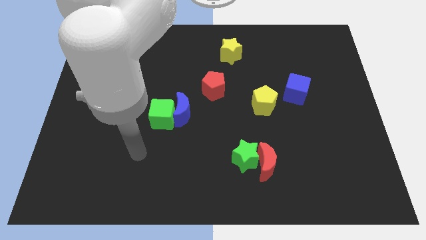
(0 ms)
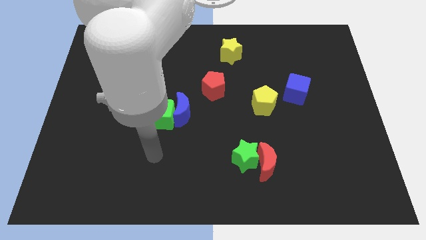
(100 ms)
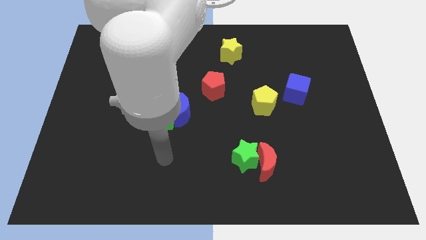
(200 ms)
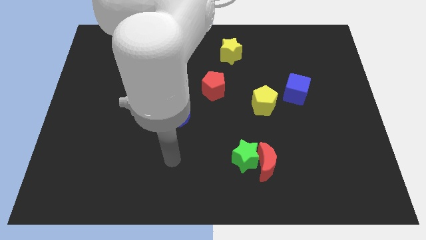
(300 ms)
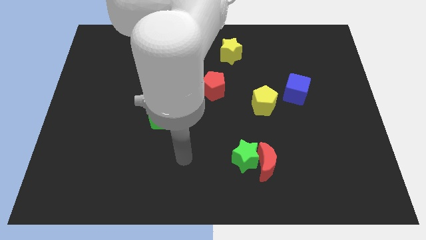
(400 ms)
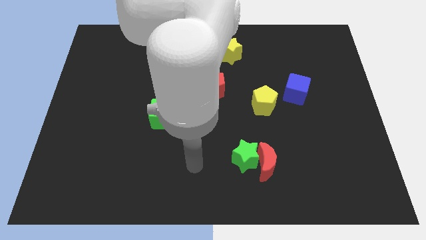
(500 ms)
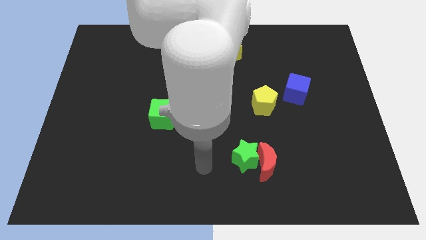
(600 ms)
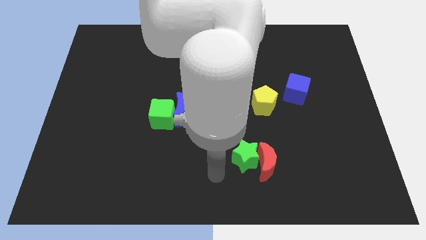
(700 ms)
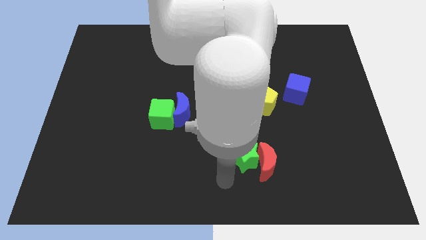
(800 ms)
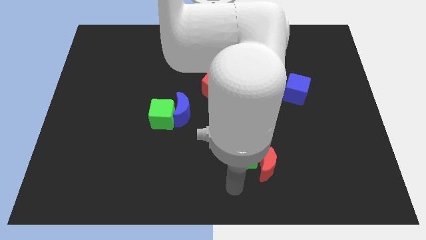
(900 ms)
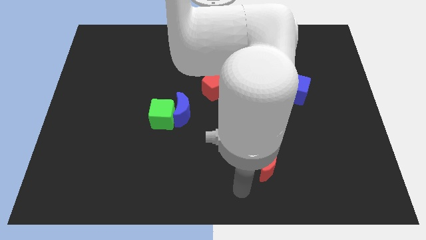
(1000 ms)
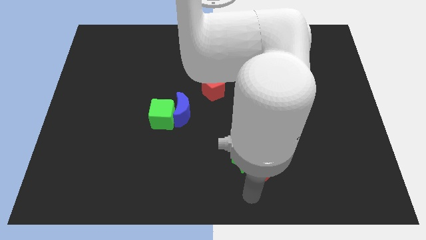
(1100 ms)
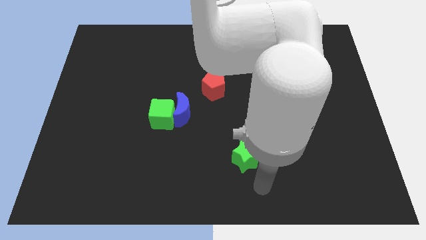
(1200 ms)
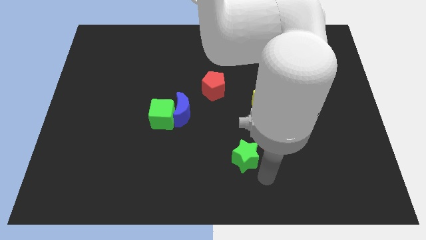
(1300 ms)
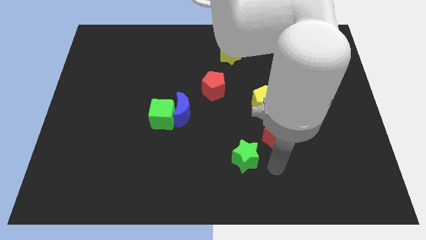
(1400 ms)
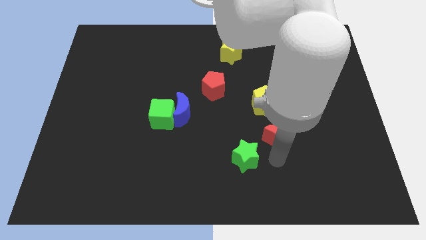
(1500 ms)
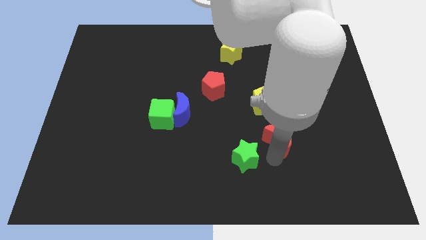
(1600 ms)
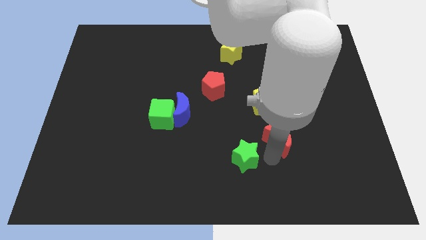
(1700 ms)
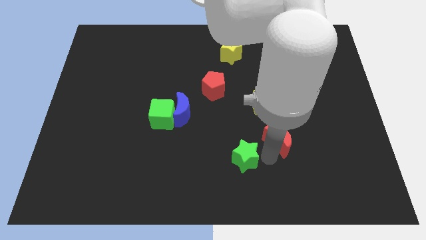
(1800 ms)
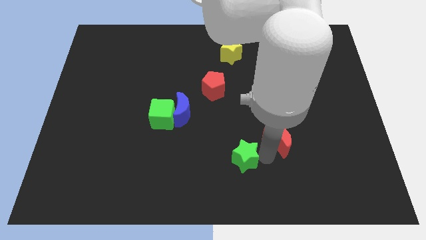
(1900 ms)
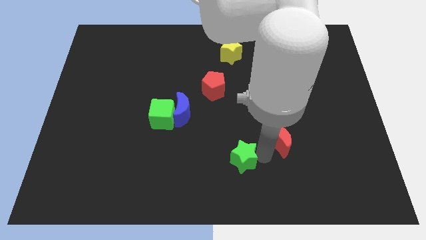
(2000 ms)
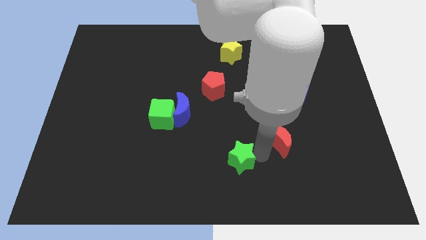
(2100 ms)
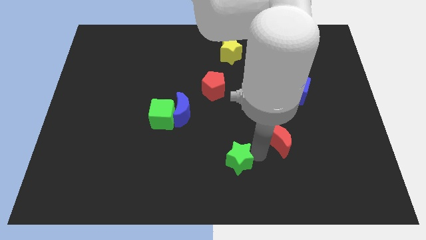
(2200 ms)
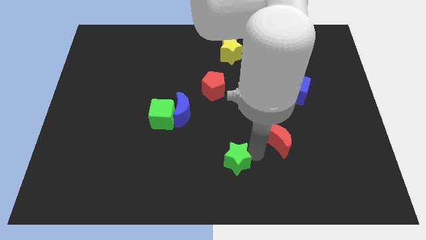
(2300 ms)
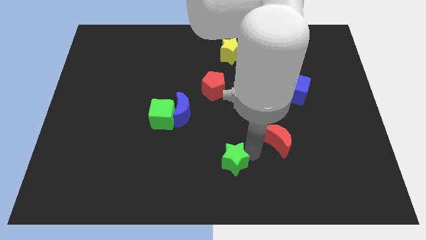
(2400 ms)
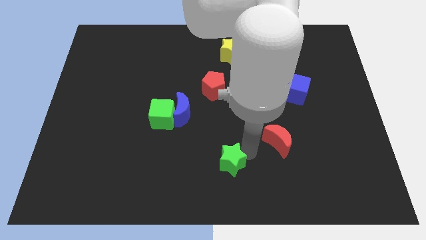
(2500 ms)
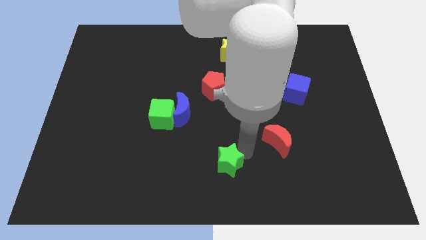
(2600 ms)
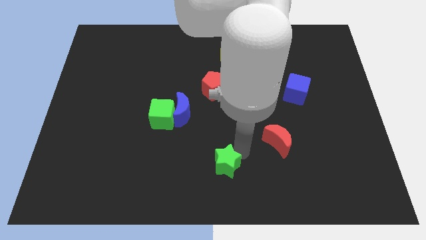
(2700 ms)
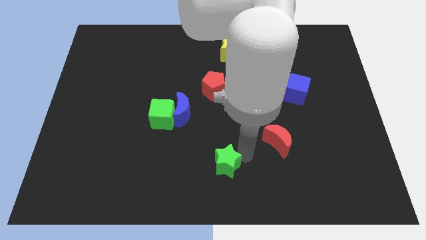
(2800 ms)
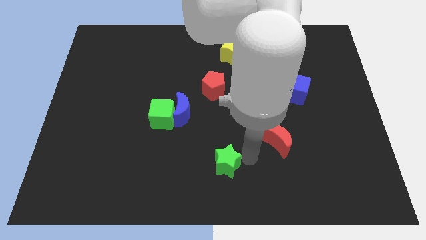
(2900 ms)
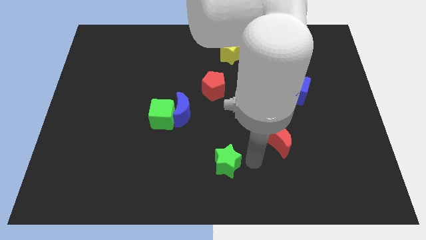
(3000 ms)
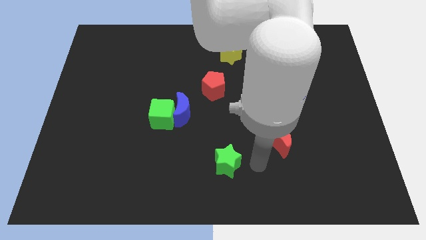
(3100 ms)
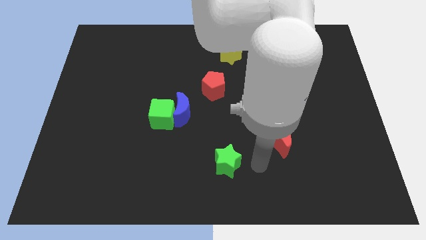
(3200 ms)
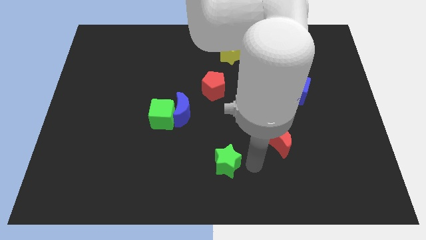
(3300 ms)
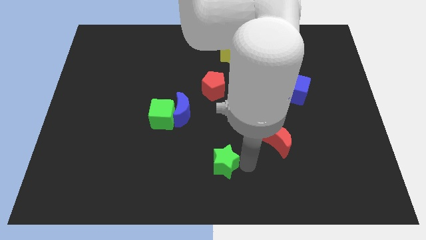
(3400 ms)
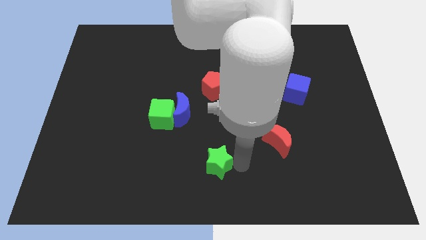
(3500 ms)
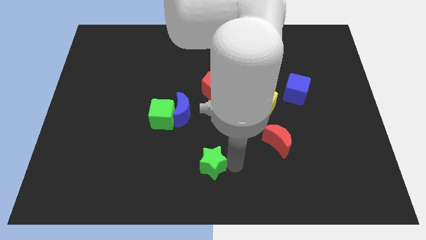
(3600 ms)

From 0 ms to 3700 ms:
push the green star left a bit

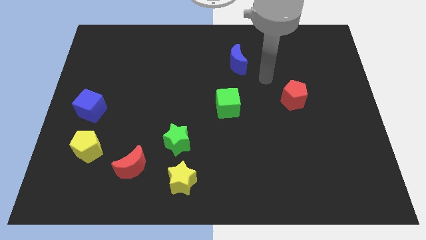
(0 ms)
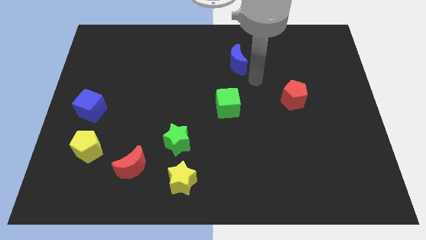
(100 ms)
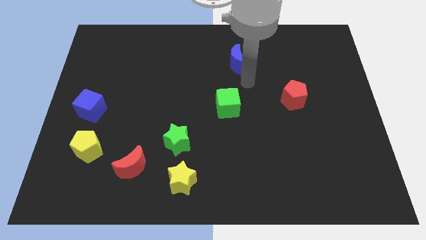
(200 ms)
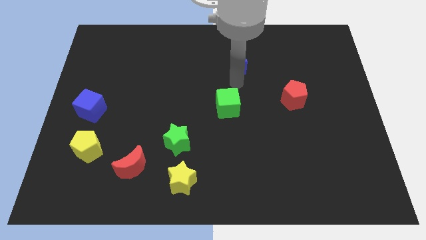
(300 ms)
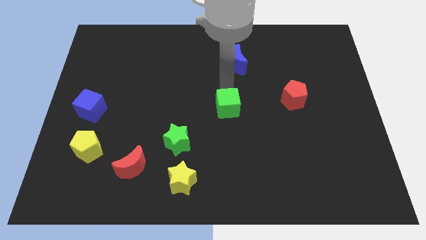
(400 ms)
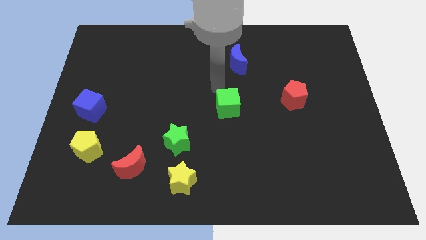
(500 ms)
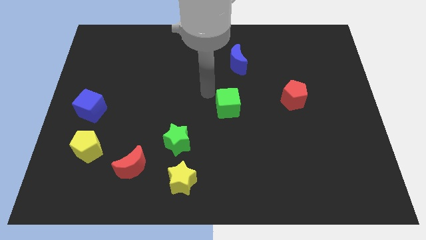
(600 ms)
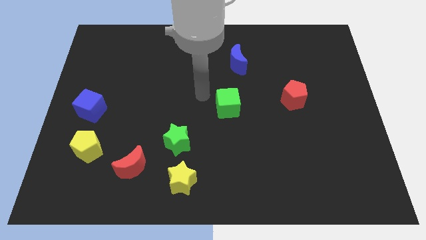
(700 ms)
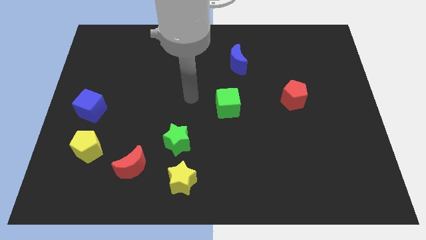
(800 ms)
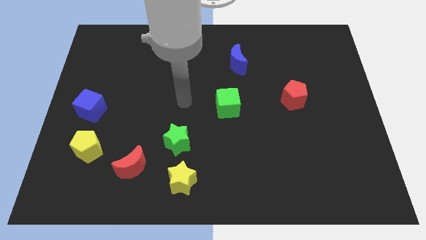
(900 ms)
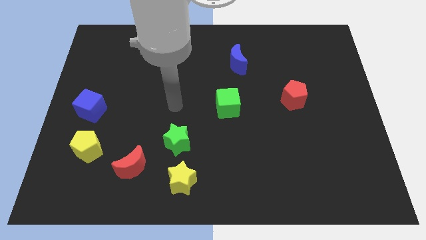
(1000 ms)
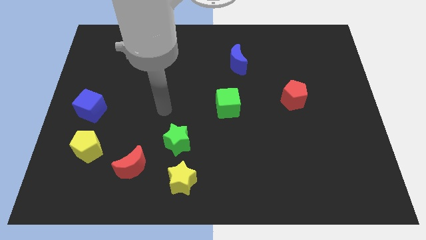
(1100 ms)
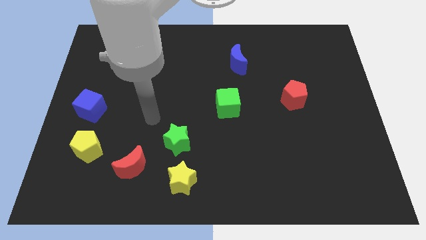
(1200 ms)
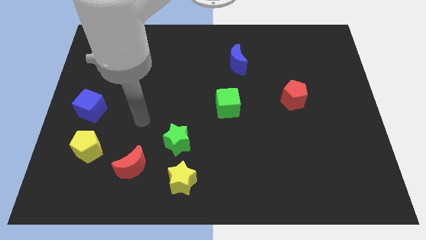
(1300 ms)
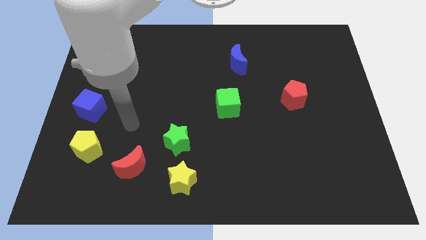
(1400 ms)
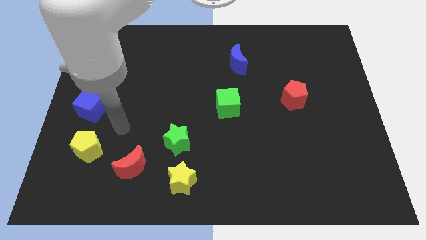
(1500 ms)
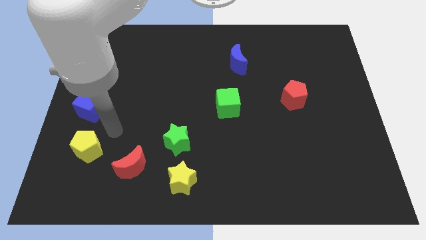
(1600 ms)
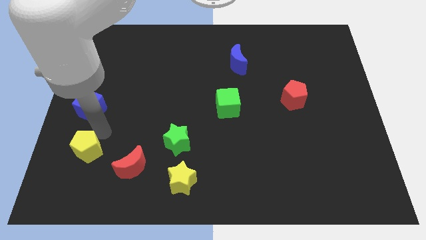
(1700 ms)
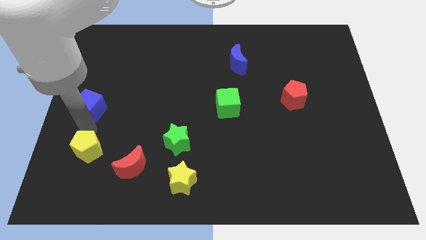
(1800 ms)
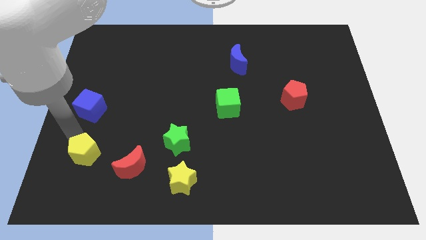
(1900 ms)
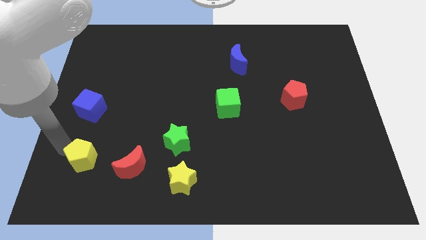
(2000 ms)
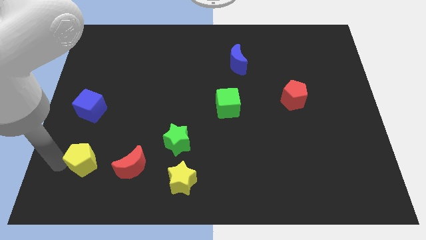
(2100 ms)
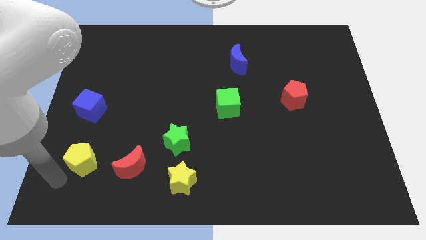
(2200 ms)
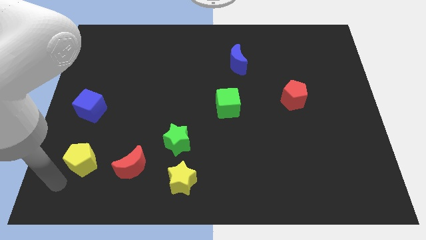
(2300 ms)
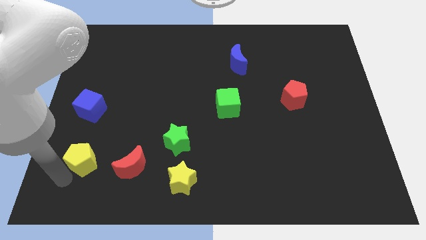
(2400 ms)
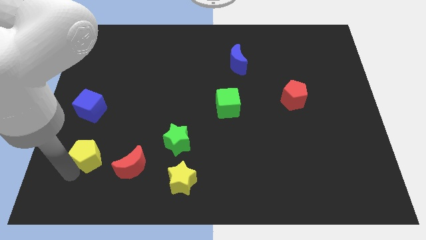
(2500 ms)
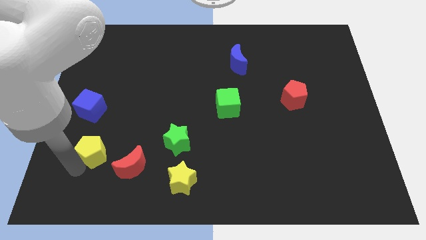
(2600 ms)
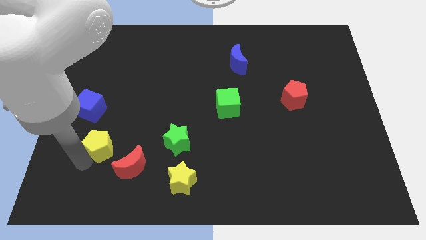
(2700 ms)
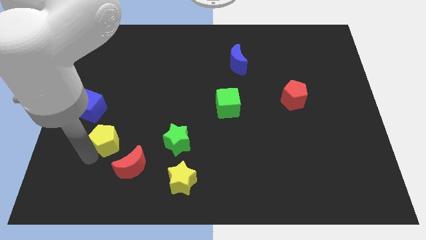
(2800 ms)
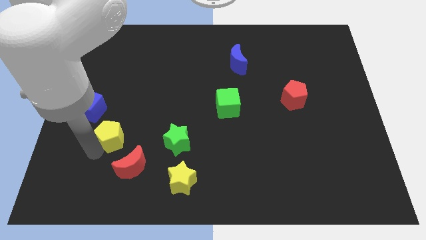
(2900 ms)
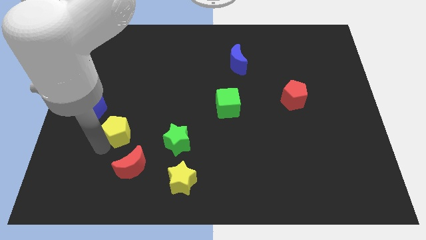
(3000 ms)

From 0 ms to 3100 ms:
slide the yellow pentagon somewhat up and then right

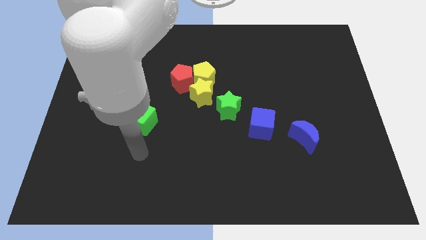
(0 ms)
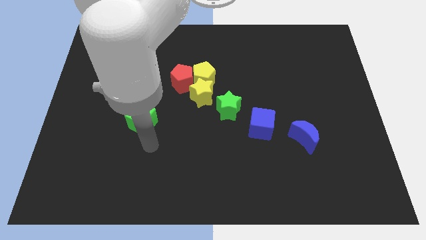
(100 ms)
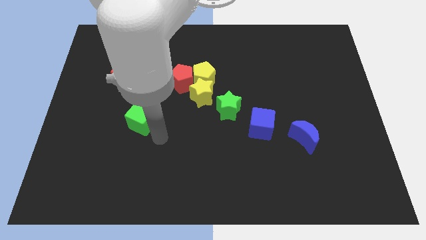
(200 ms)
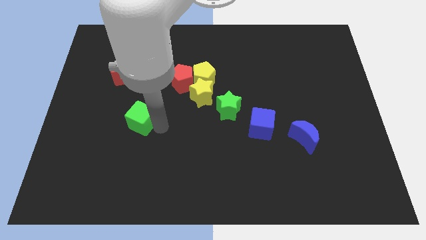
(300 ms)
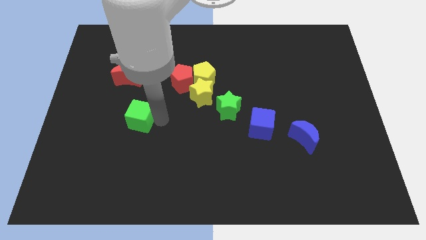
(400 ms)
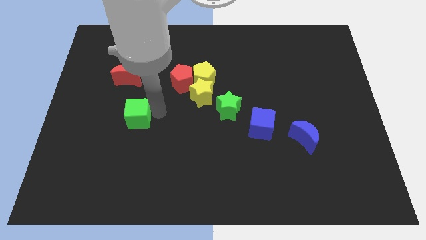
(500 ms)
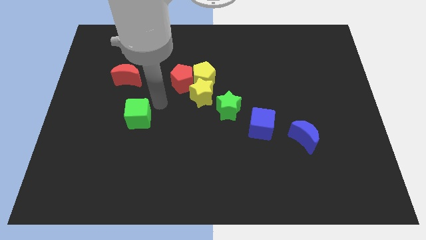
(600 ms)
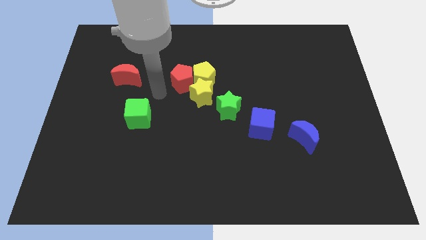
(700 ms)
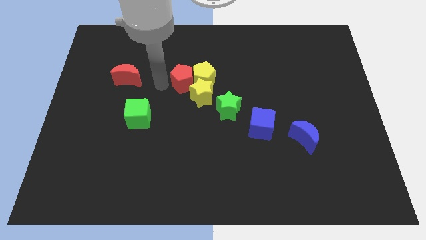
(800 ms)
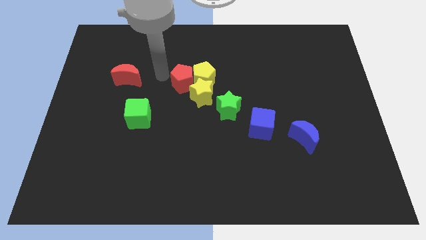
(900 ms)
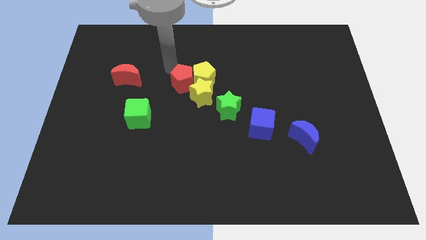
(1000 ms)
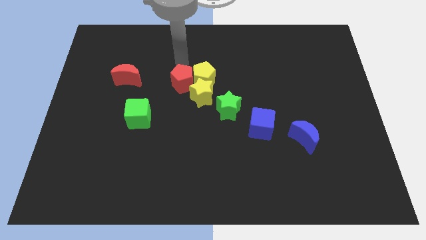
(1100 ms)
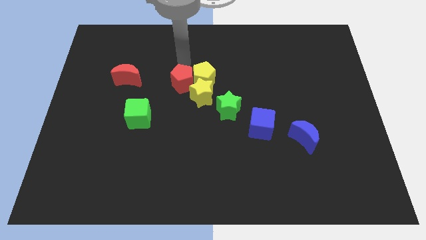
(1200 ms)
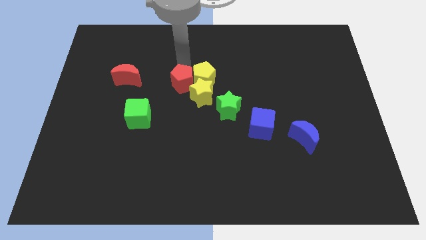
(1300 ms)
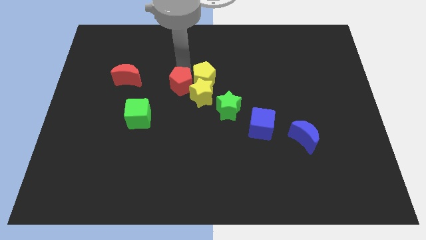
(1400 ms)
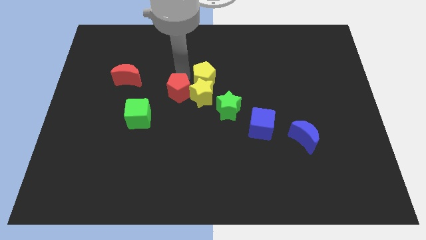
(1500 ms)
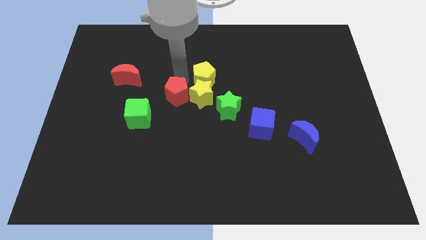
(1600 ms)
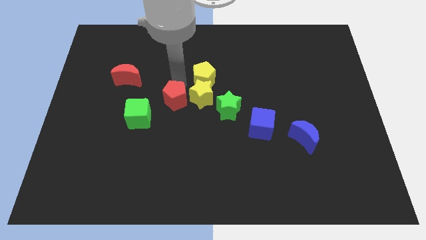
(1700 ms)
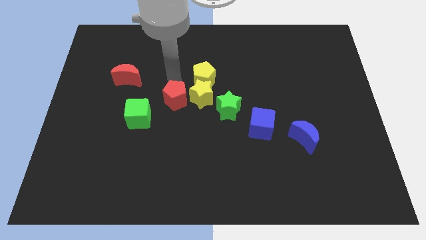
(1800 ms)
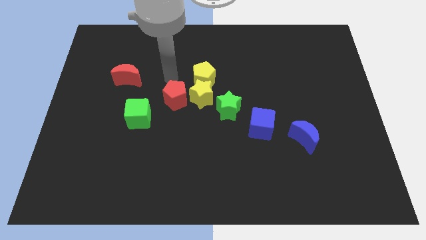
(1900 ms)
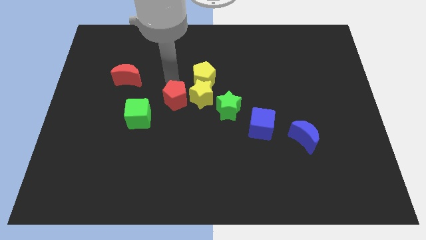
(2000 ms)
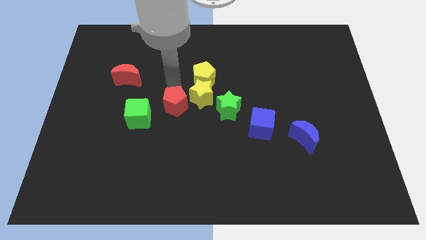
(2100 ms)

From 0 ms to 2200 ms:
move the red pentagon a bit downwards
